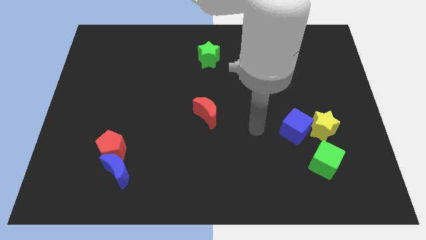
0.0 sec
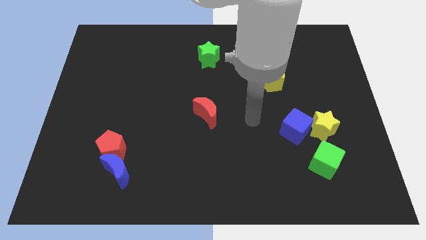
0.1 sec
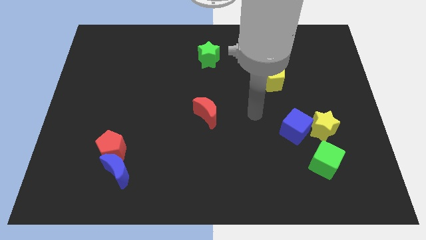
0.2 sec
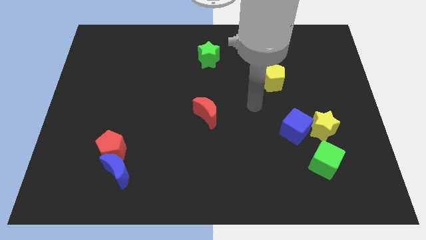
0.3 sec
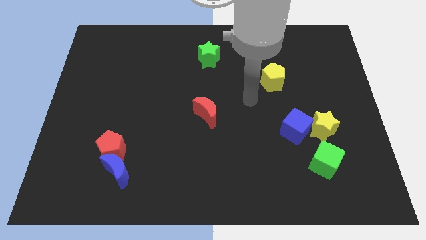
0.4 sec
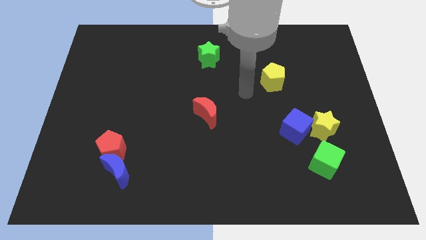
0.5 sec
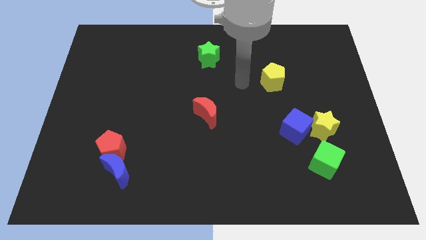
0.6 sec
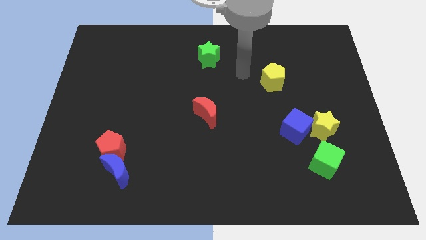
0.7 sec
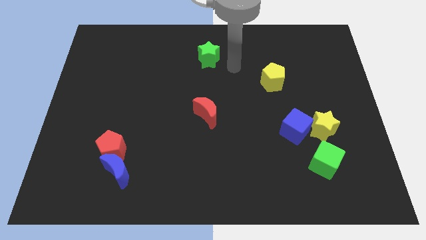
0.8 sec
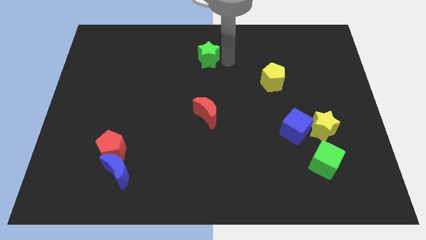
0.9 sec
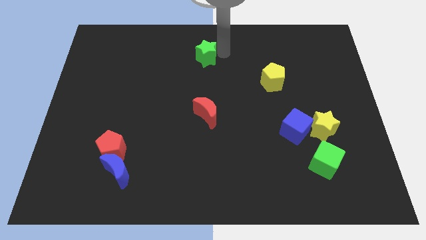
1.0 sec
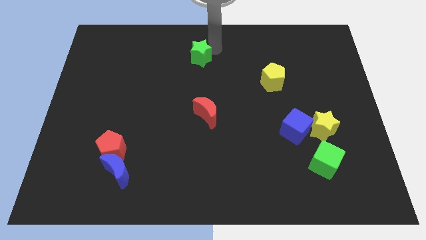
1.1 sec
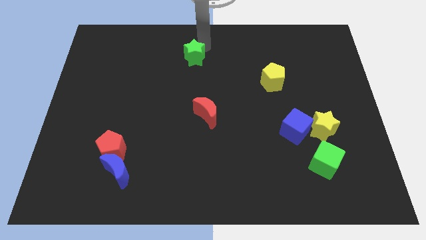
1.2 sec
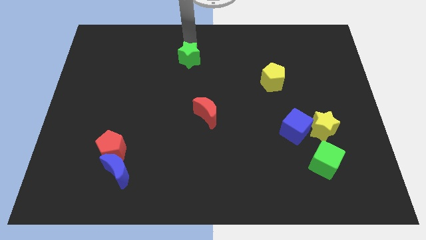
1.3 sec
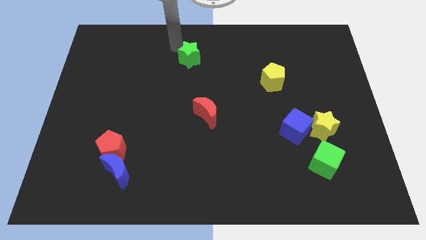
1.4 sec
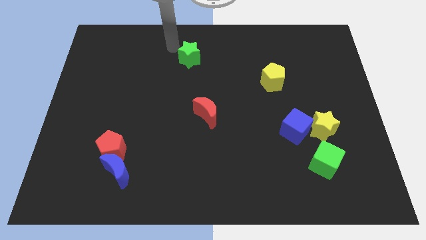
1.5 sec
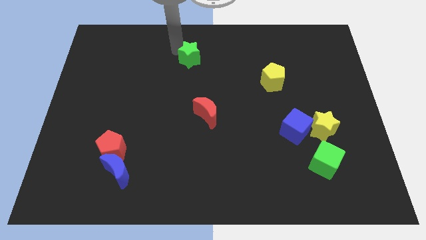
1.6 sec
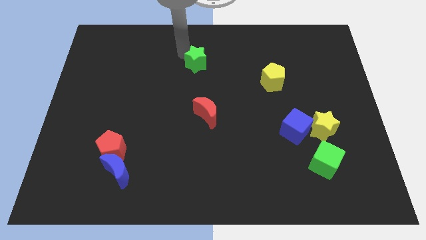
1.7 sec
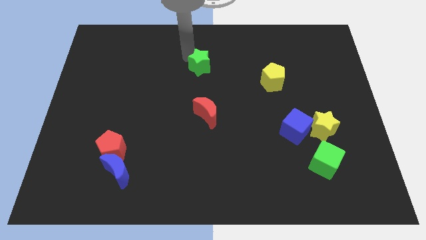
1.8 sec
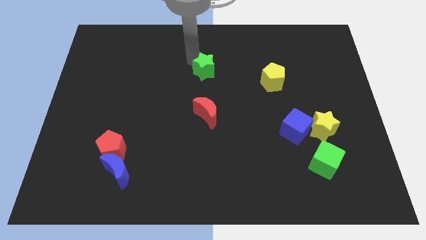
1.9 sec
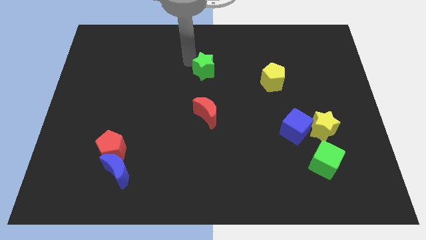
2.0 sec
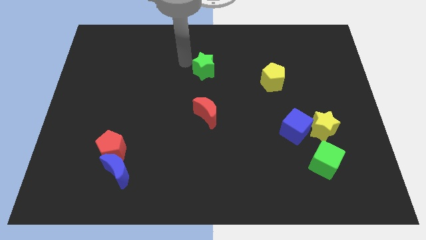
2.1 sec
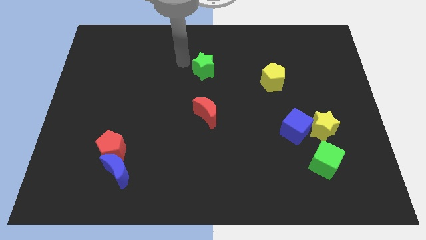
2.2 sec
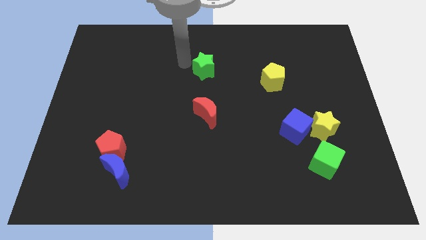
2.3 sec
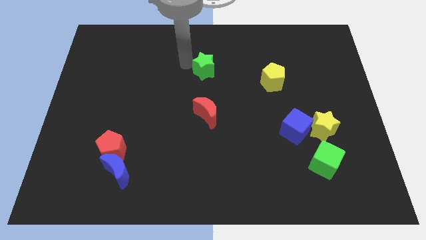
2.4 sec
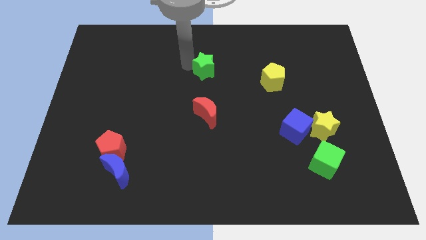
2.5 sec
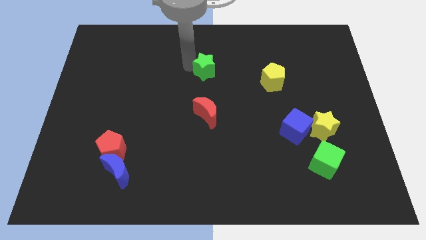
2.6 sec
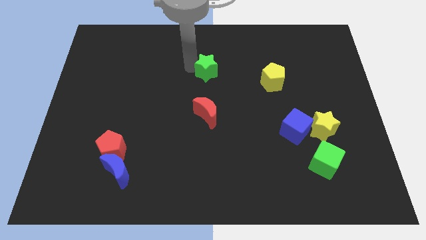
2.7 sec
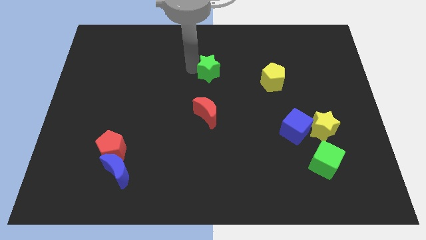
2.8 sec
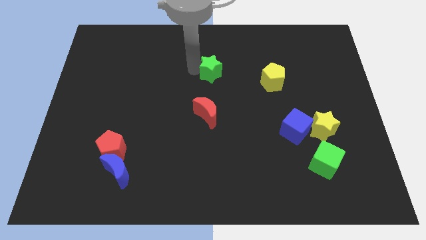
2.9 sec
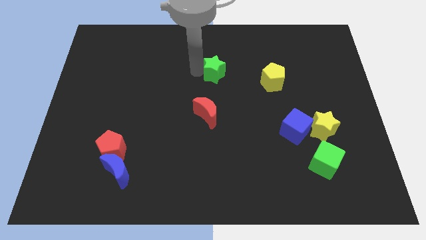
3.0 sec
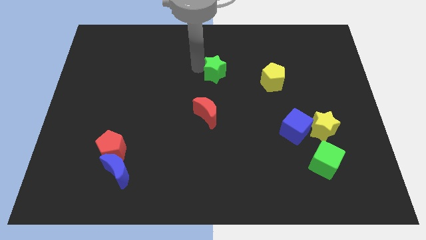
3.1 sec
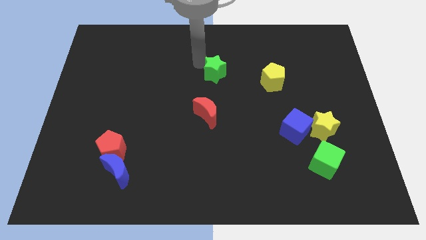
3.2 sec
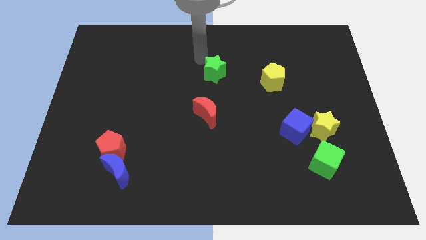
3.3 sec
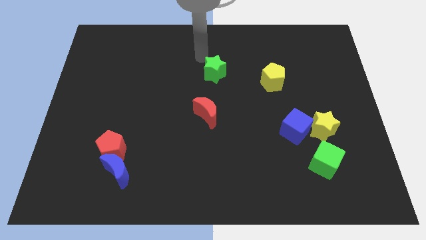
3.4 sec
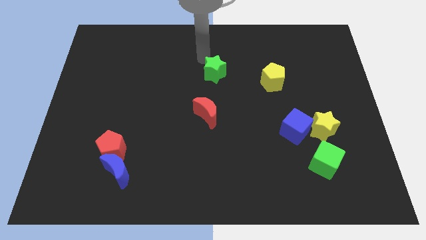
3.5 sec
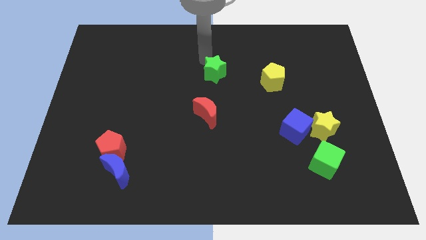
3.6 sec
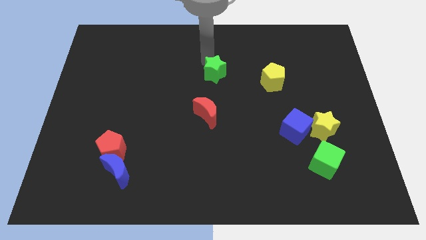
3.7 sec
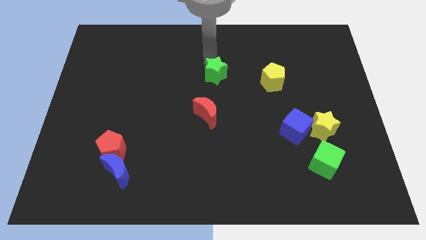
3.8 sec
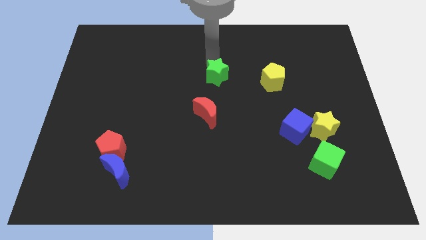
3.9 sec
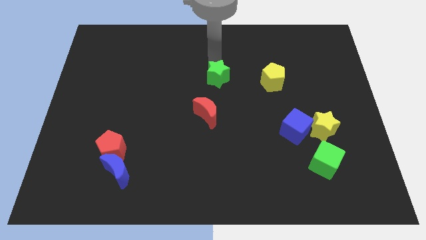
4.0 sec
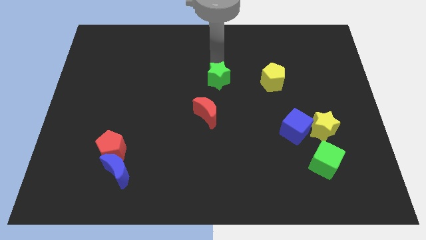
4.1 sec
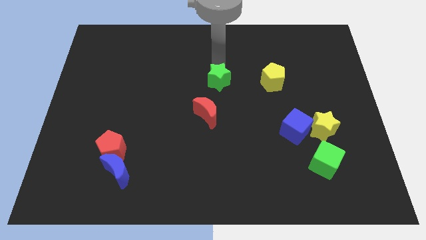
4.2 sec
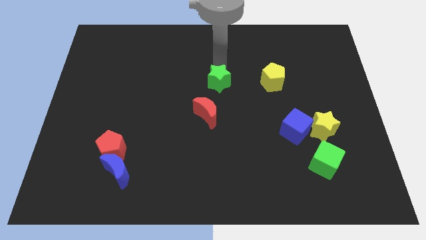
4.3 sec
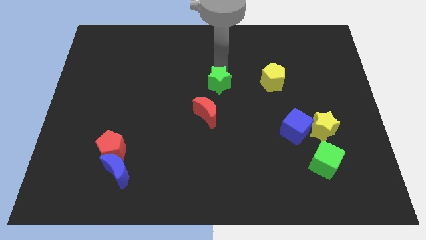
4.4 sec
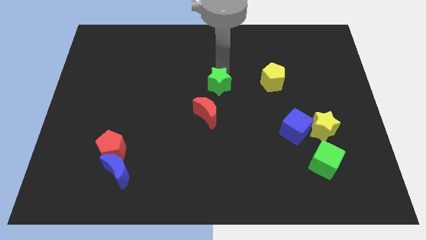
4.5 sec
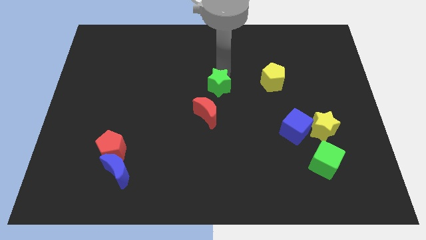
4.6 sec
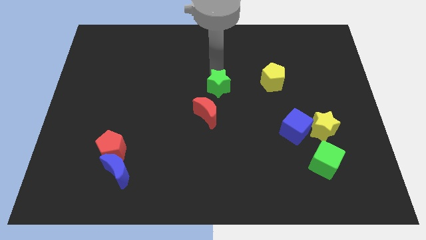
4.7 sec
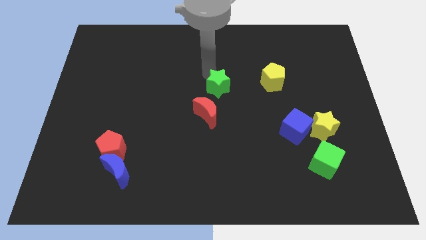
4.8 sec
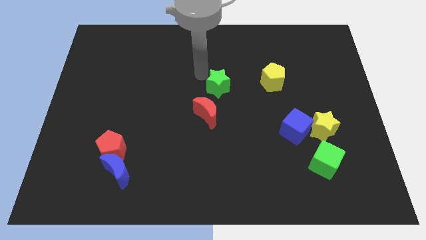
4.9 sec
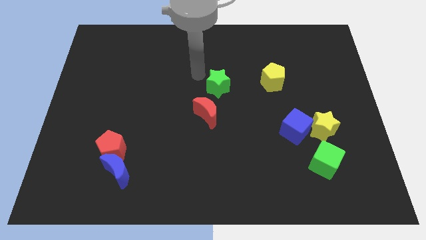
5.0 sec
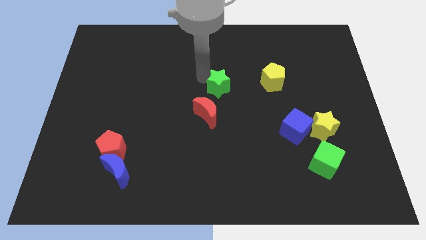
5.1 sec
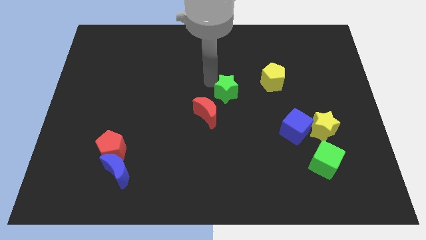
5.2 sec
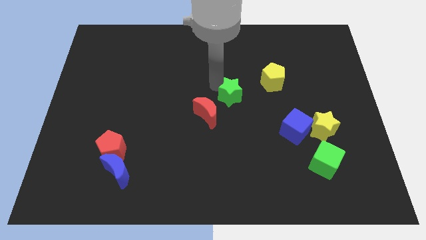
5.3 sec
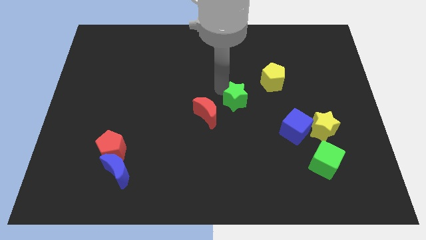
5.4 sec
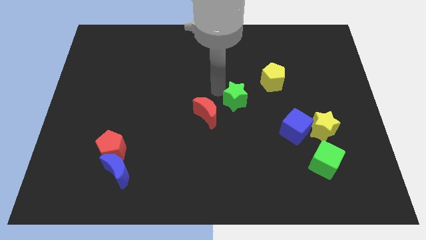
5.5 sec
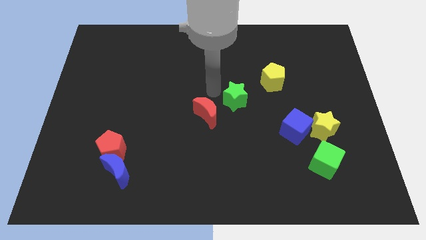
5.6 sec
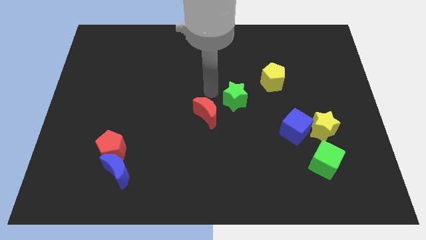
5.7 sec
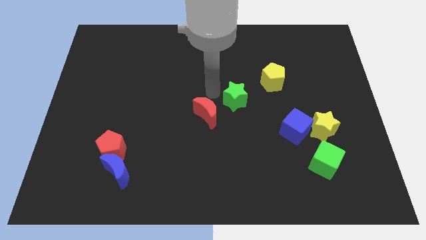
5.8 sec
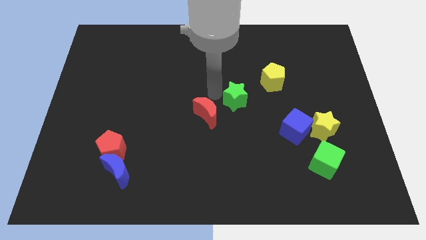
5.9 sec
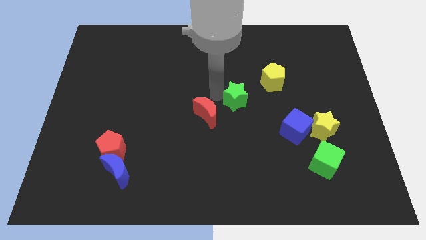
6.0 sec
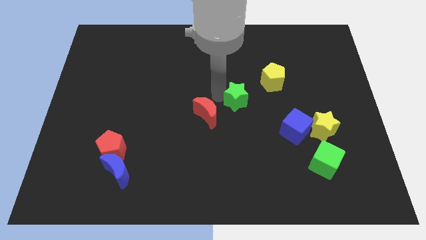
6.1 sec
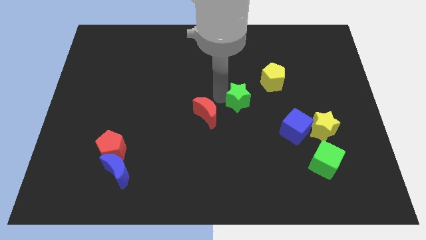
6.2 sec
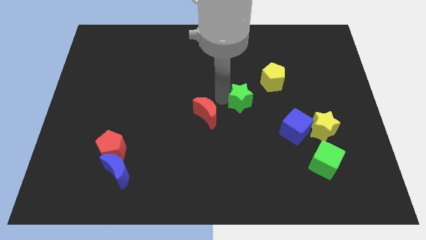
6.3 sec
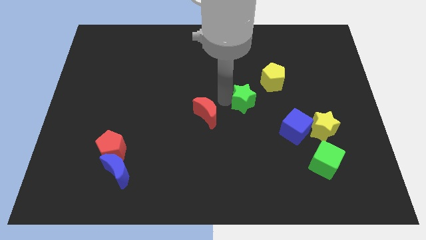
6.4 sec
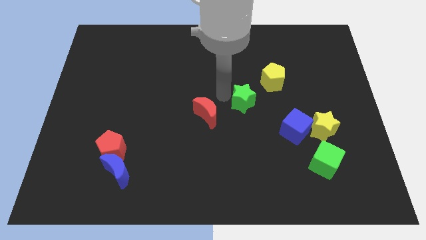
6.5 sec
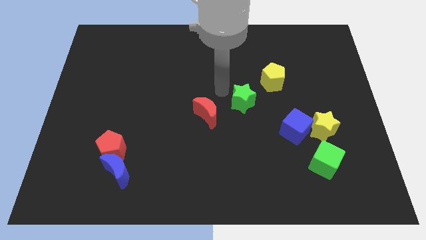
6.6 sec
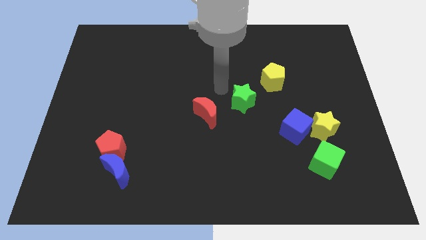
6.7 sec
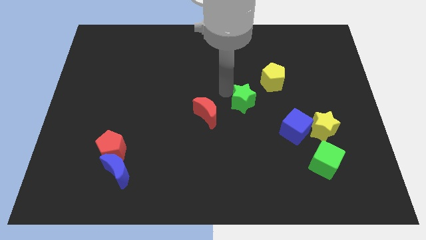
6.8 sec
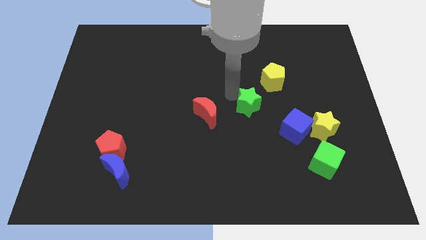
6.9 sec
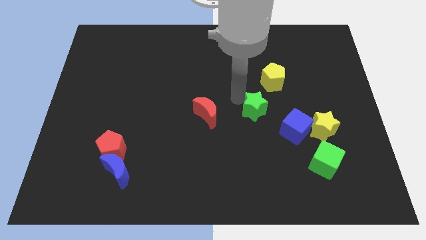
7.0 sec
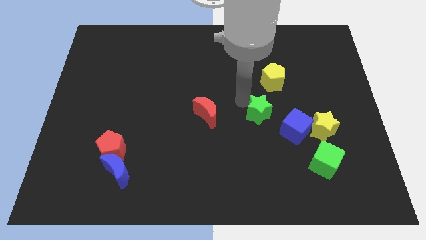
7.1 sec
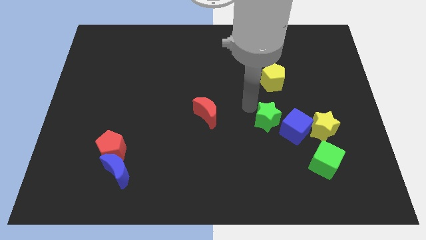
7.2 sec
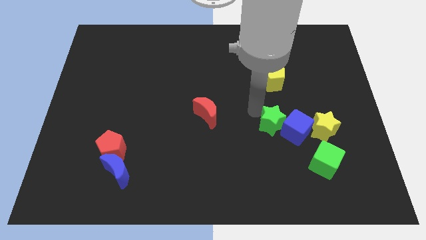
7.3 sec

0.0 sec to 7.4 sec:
put the green star close to the blue cube

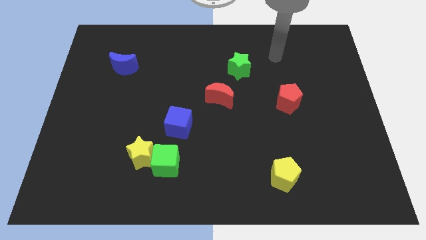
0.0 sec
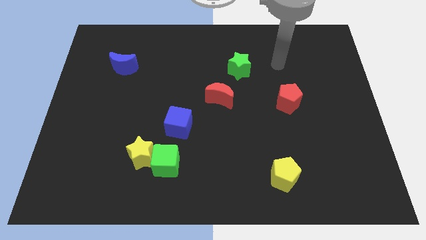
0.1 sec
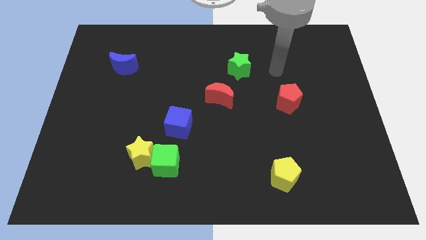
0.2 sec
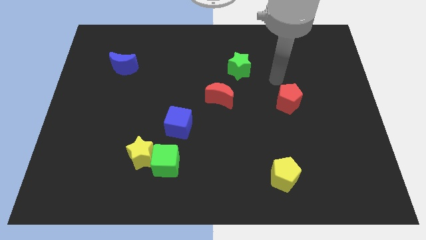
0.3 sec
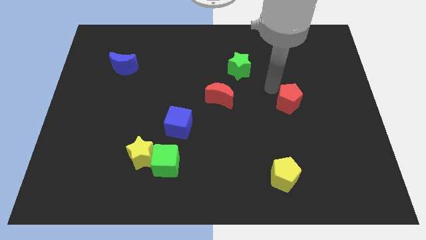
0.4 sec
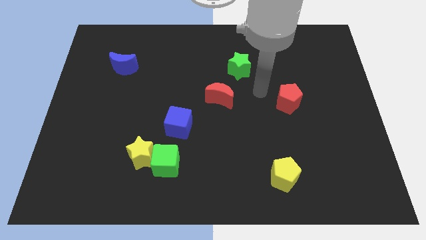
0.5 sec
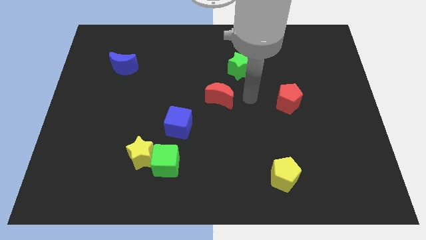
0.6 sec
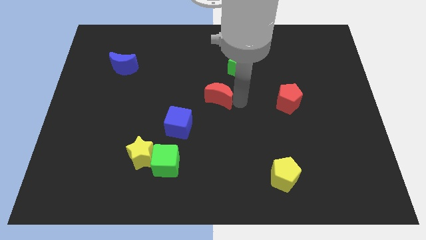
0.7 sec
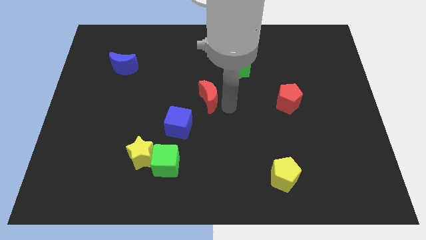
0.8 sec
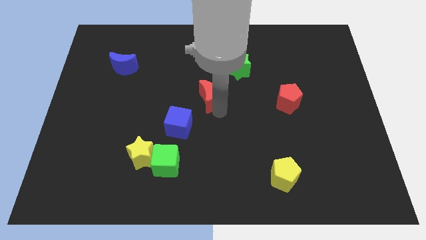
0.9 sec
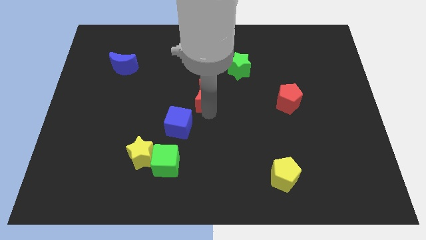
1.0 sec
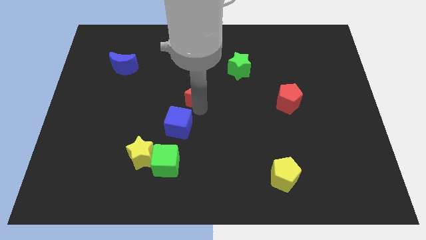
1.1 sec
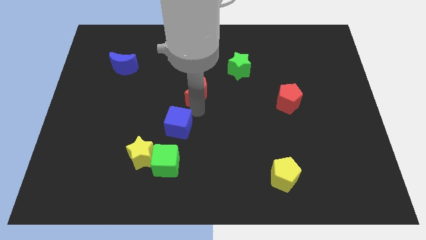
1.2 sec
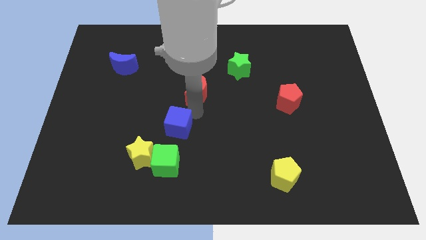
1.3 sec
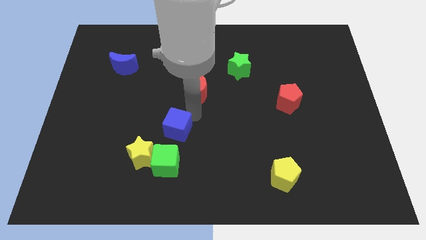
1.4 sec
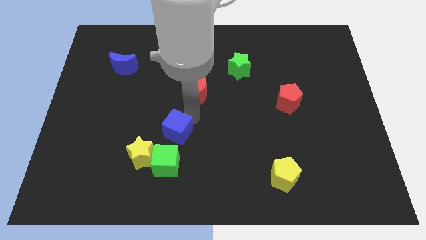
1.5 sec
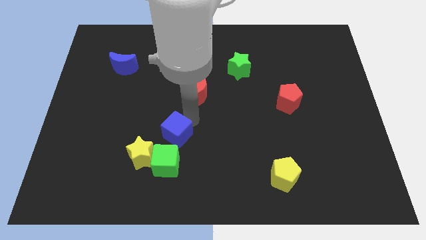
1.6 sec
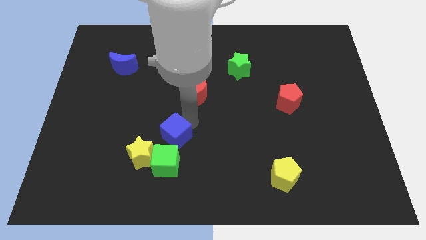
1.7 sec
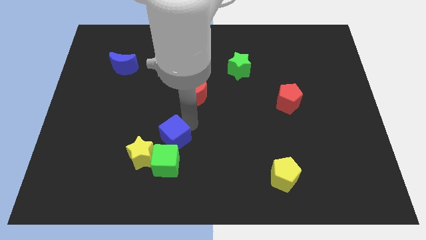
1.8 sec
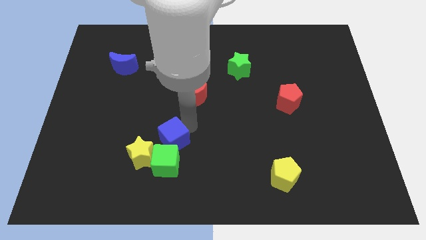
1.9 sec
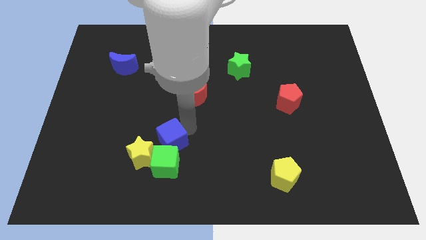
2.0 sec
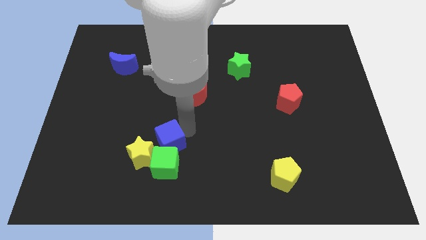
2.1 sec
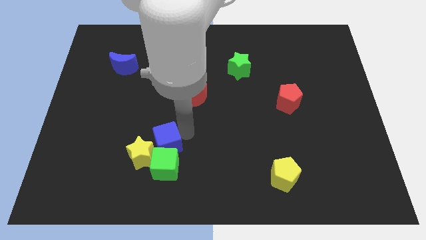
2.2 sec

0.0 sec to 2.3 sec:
push the blue cube close to the yellow star
